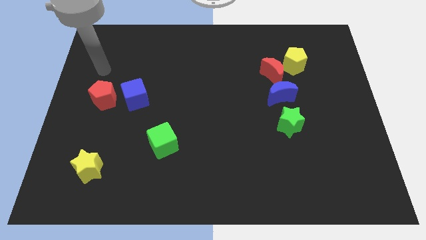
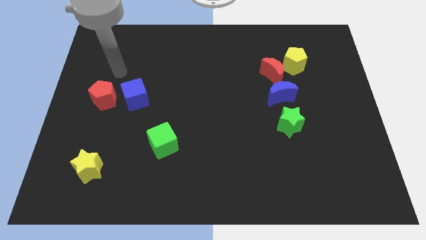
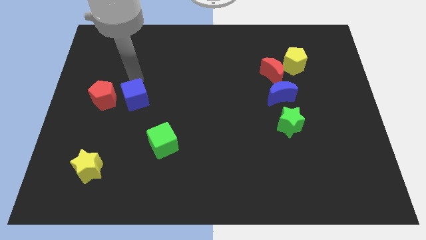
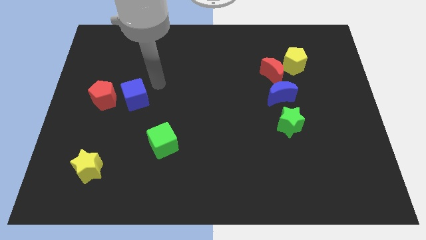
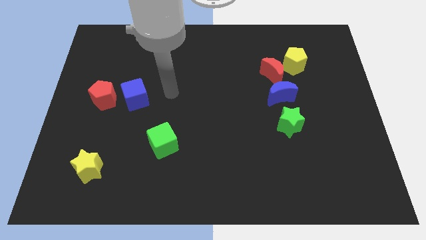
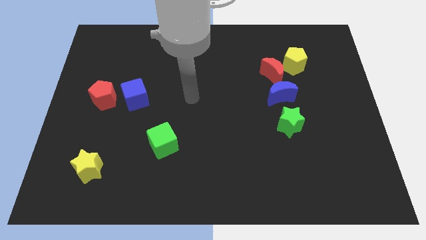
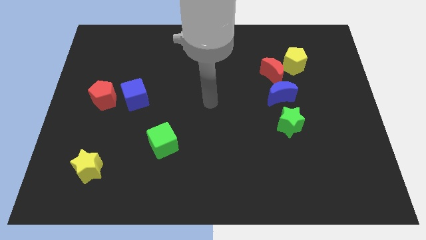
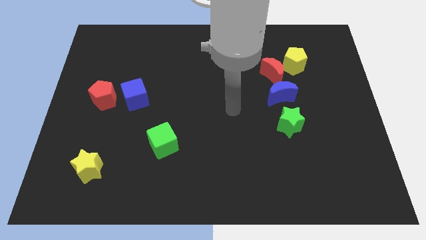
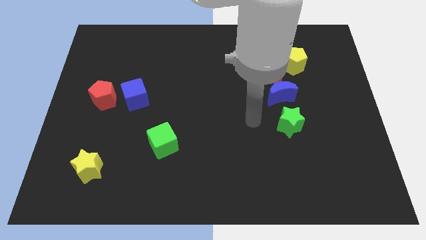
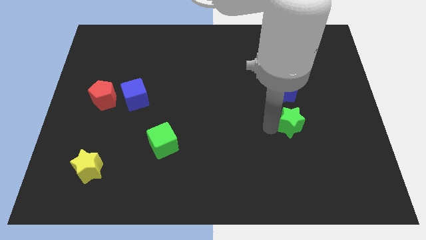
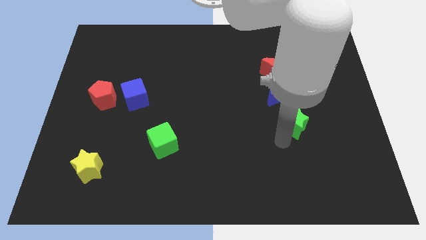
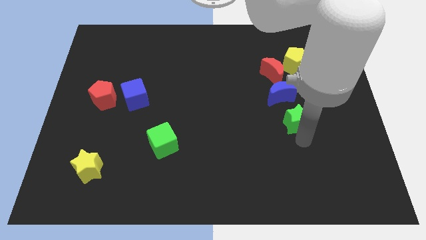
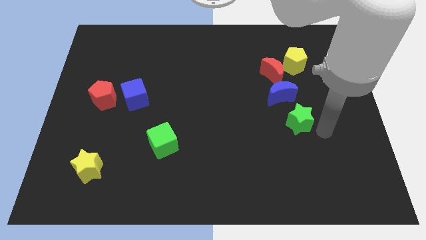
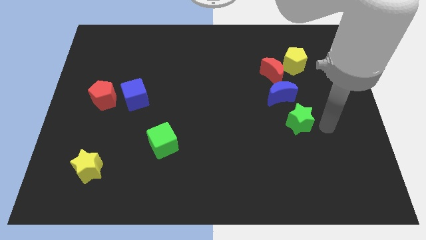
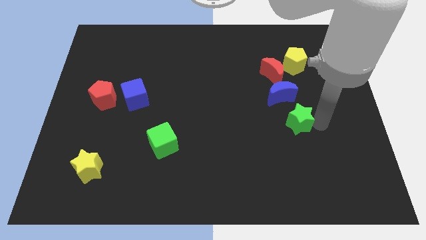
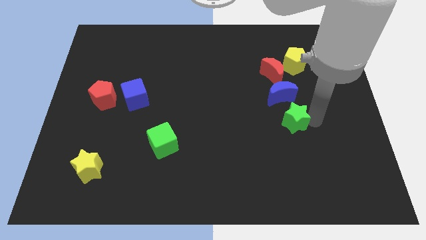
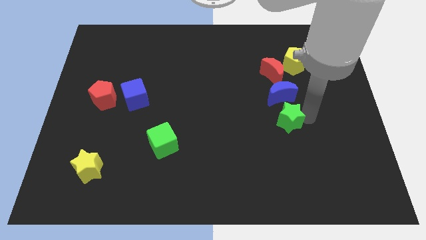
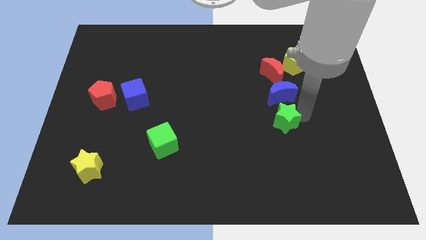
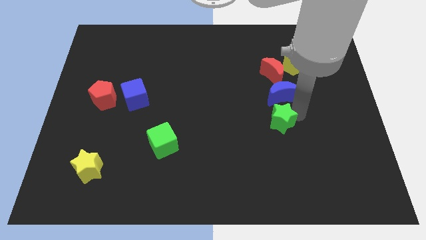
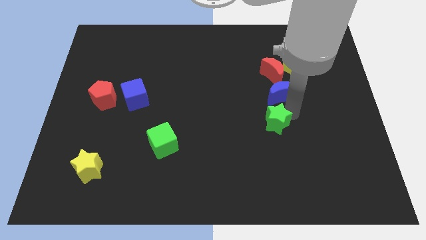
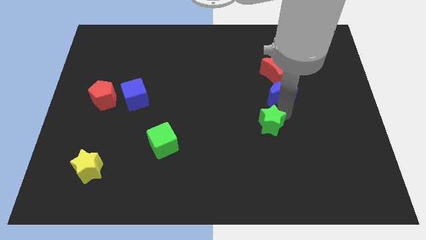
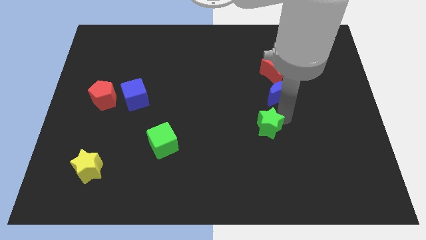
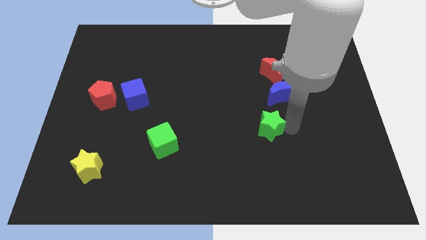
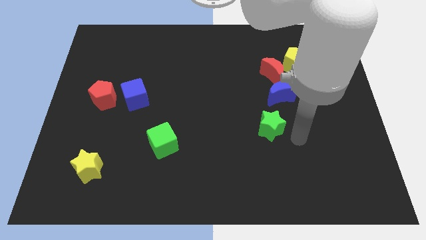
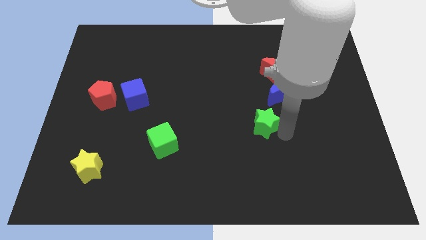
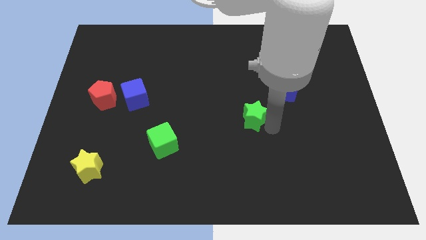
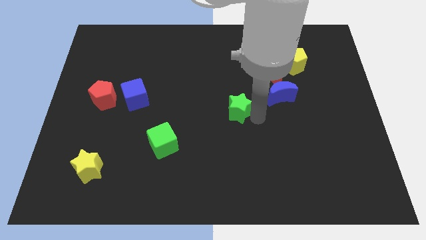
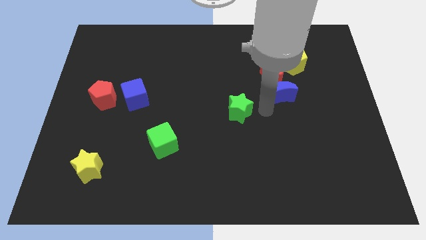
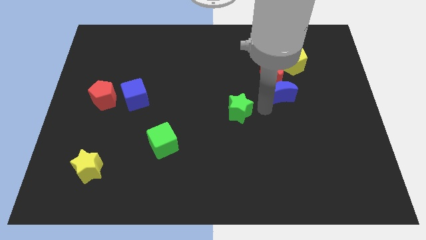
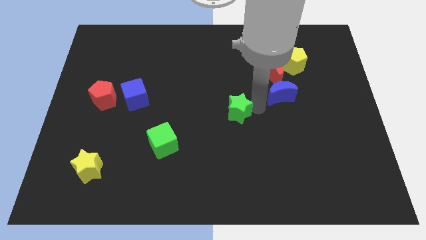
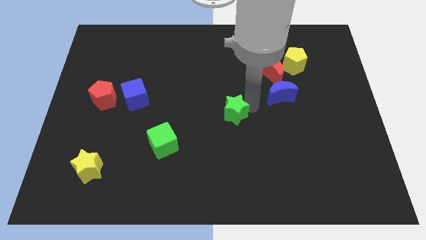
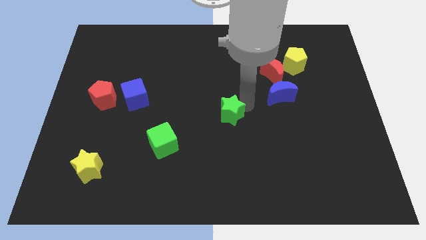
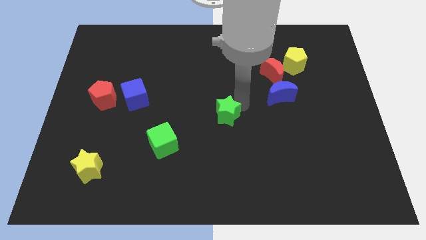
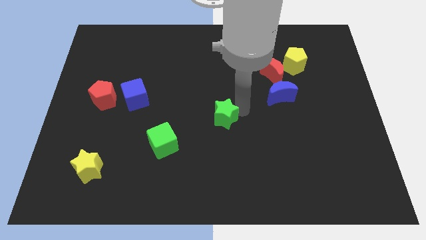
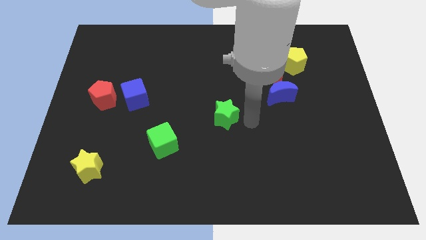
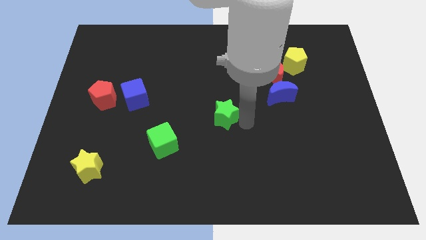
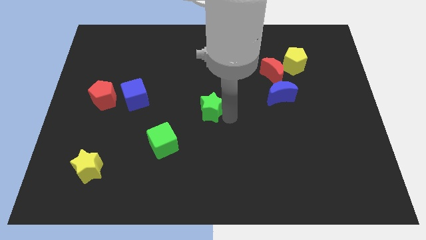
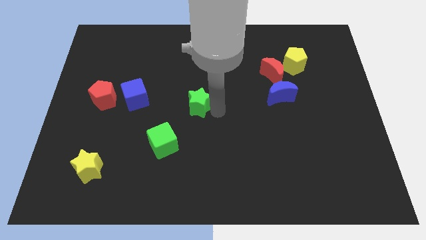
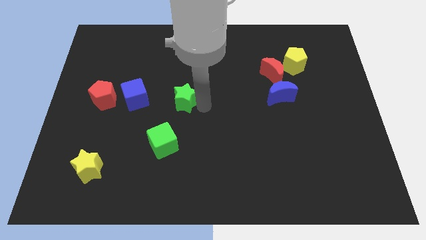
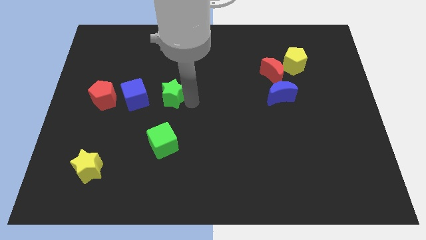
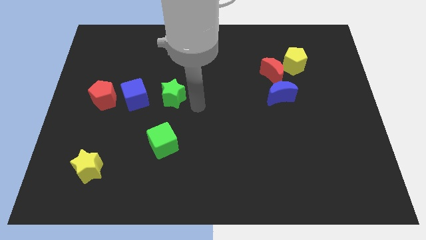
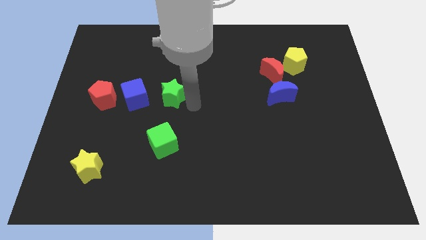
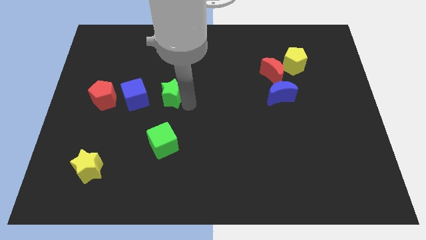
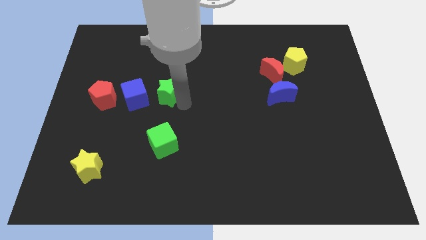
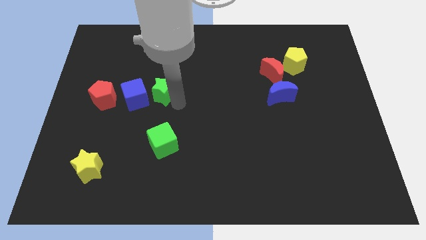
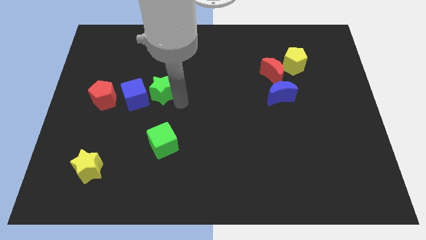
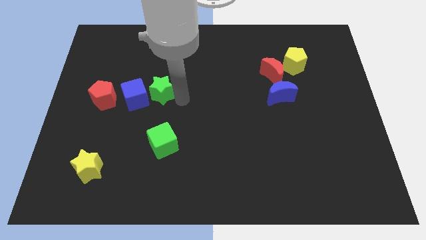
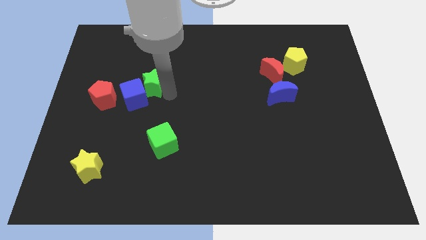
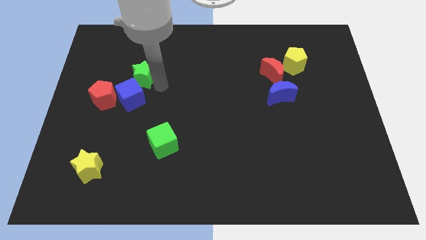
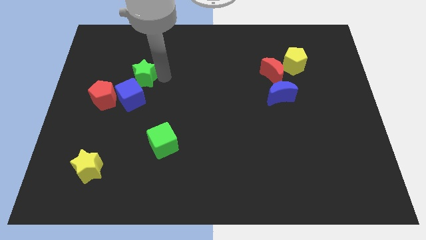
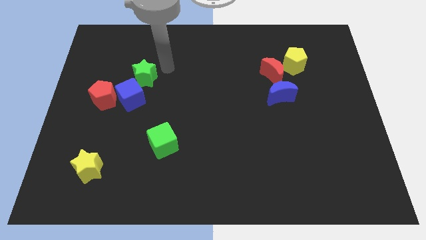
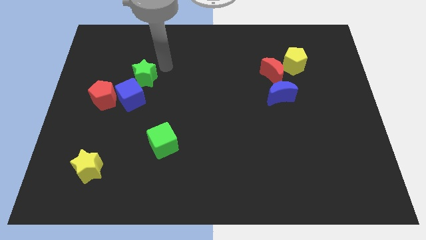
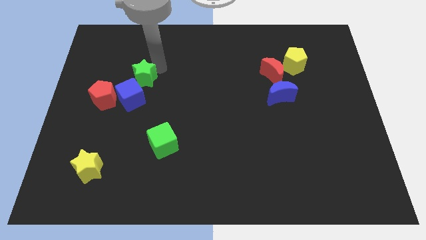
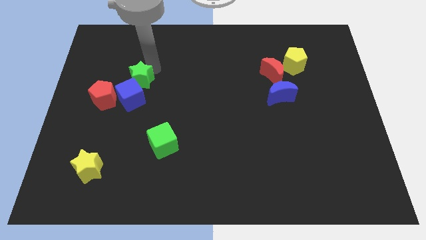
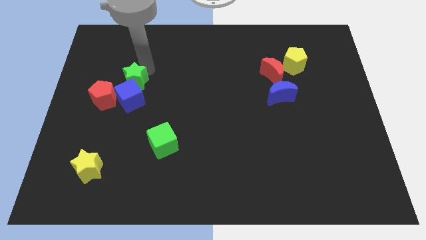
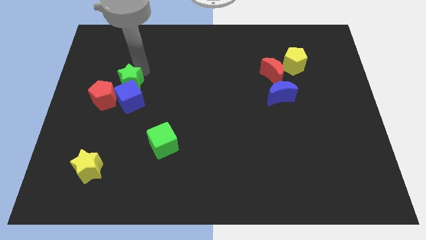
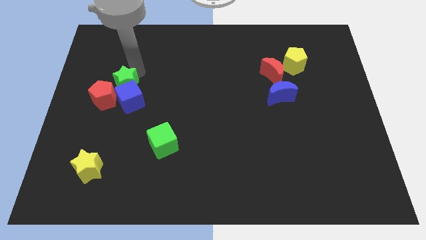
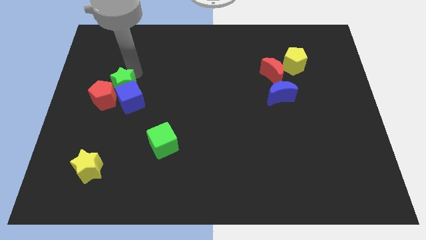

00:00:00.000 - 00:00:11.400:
slide the green star towards the red pentagon

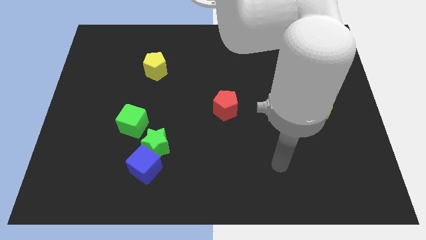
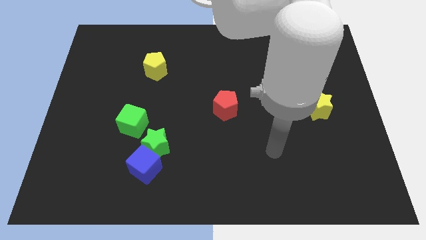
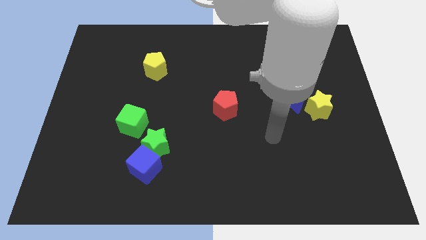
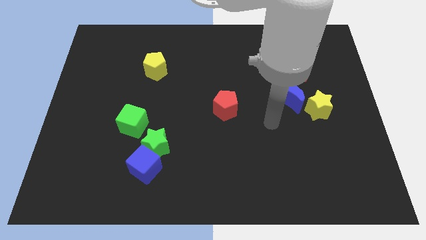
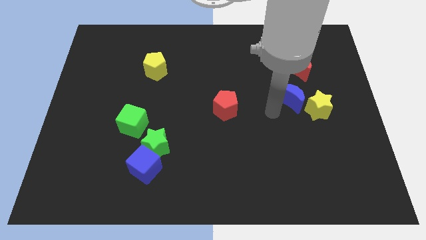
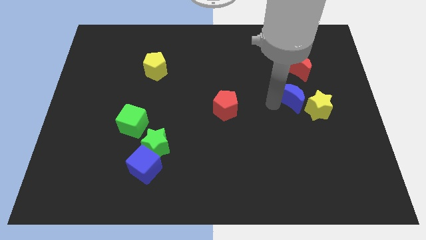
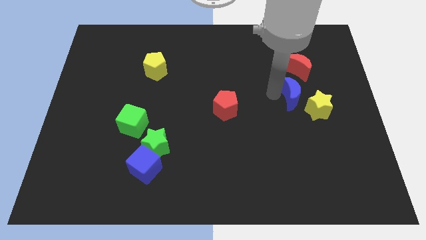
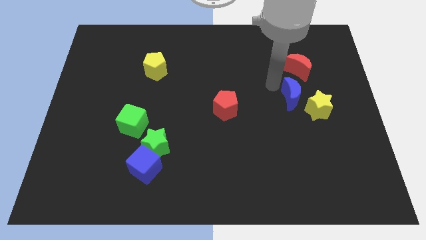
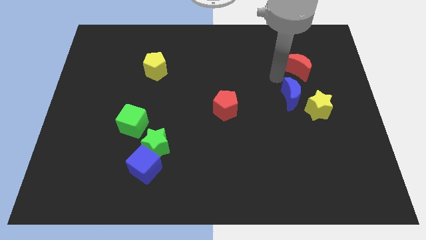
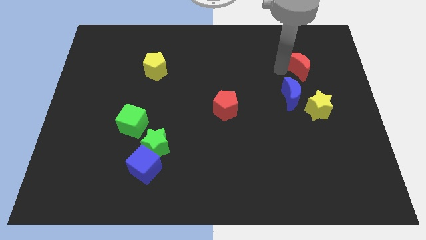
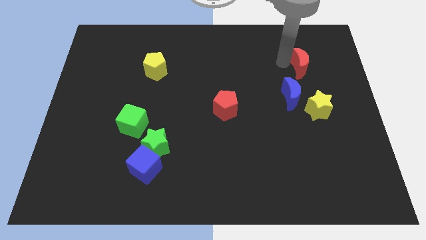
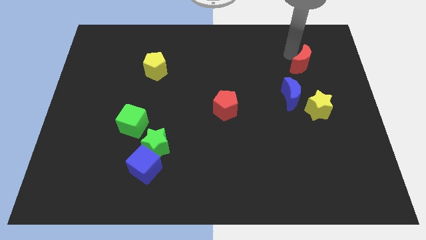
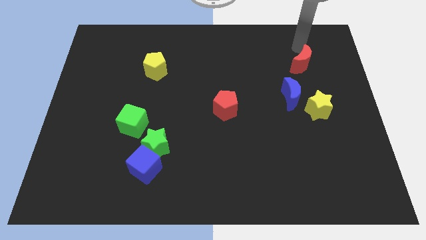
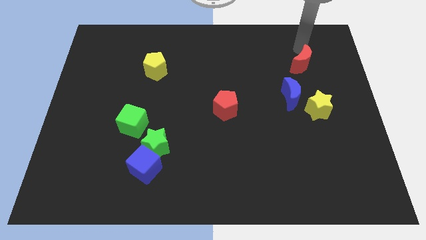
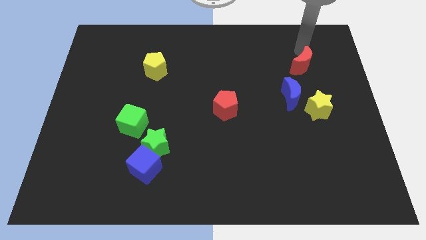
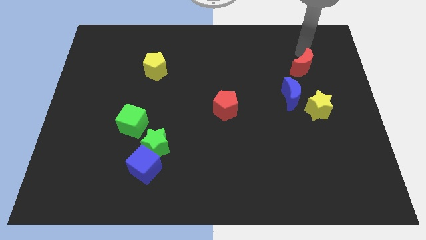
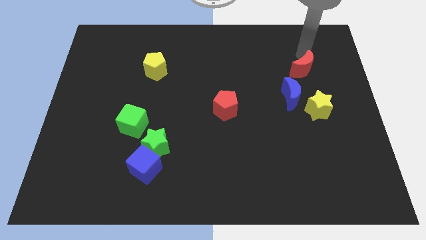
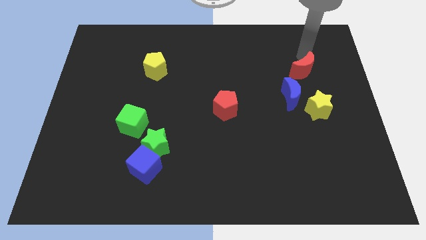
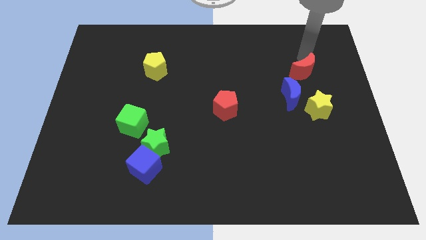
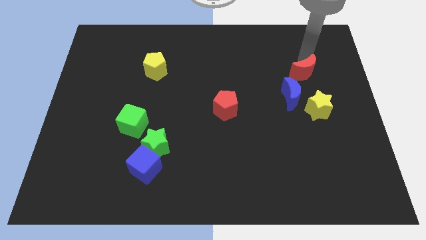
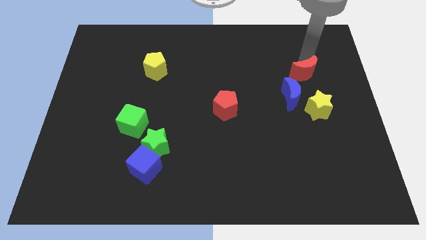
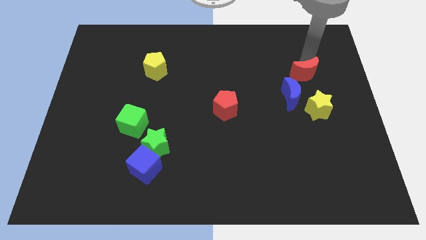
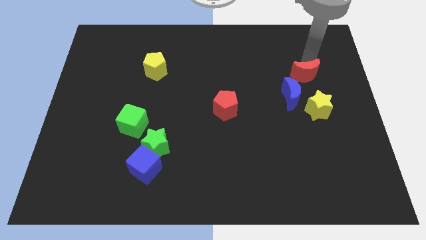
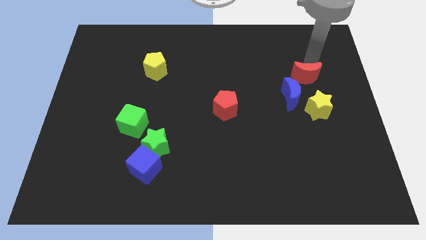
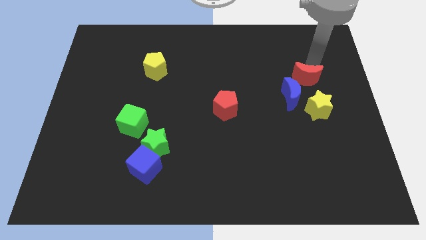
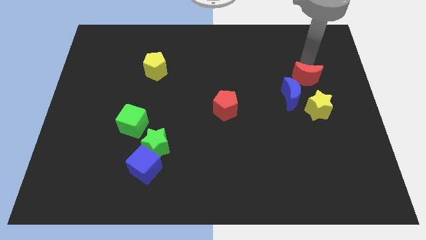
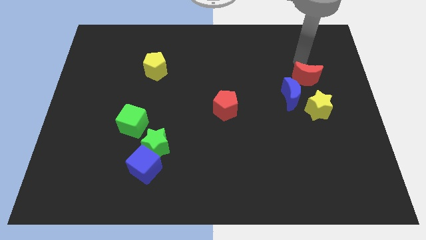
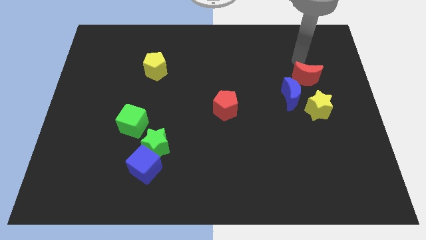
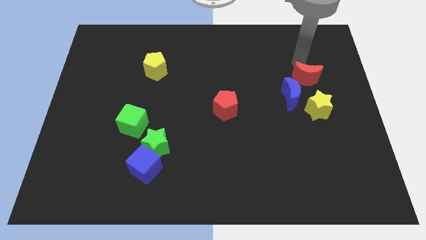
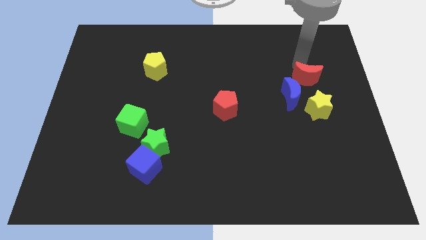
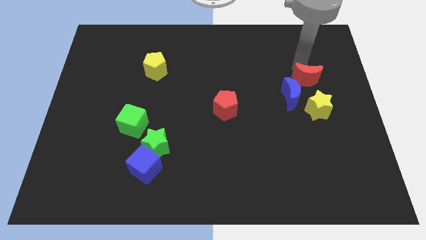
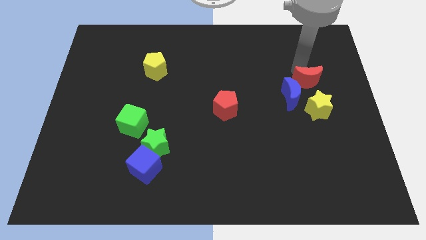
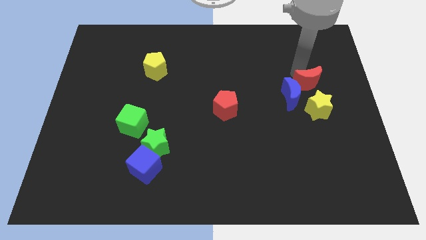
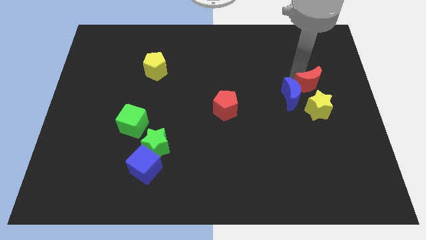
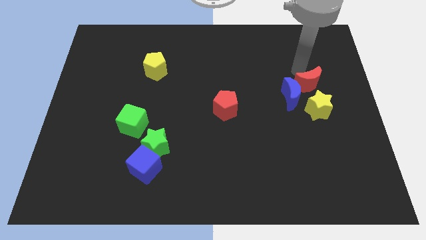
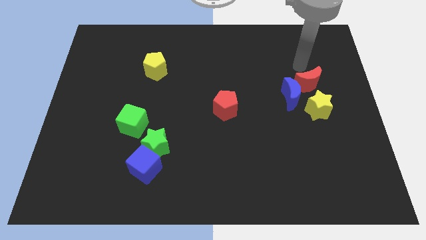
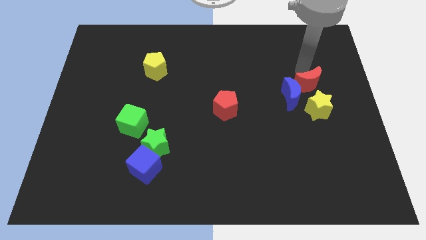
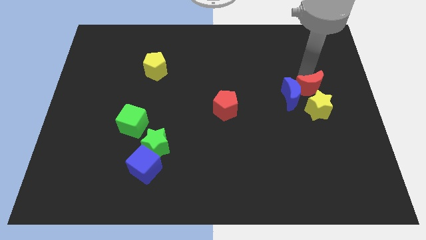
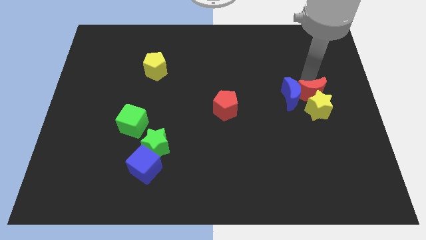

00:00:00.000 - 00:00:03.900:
push the red moon towards the yellow star
